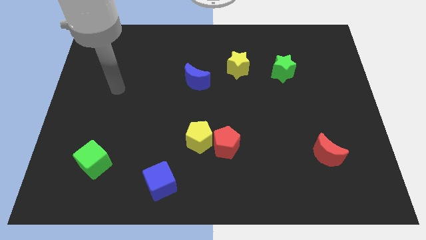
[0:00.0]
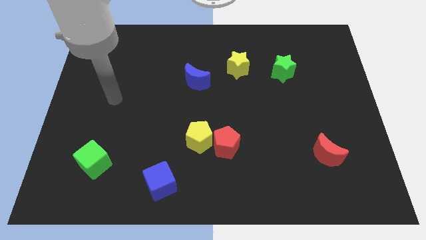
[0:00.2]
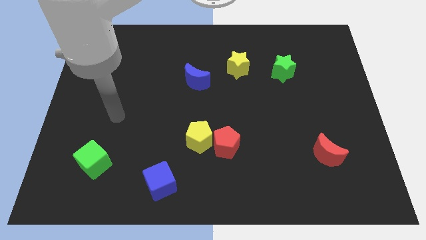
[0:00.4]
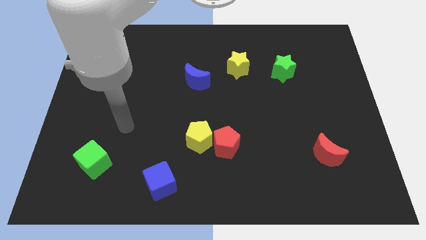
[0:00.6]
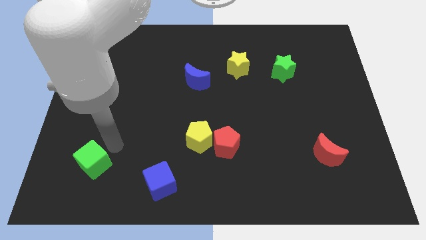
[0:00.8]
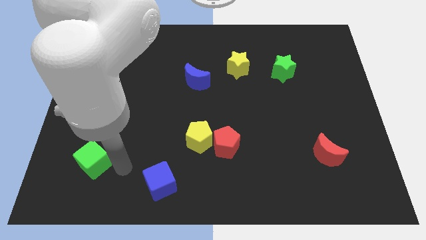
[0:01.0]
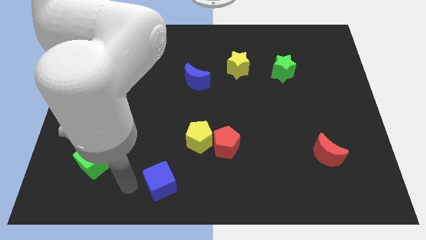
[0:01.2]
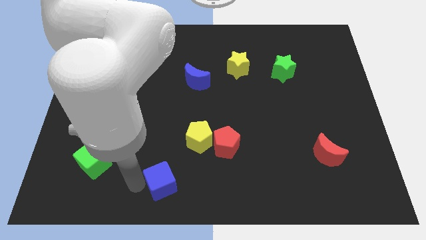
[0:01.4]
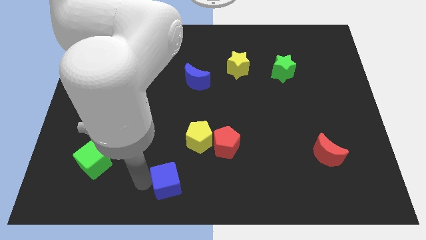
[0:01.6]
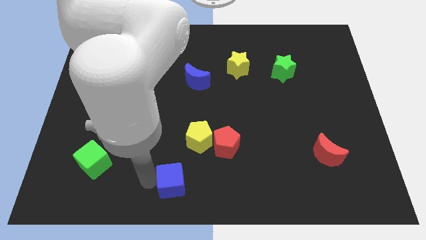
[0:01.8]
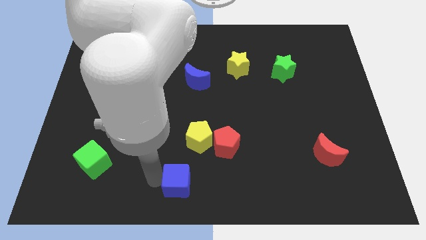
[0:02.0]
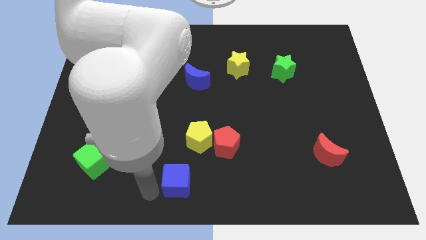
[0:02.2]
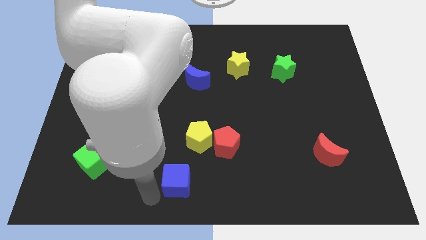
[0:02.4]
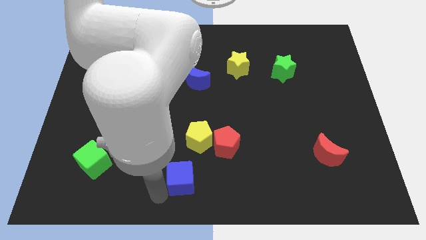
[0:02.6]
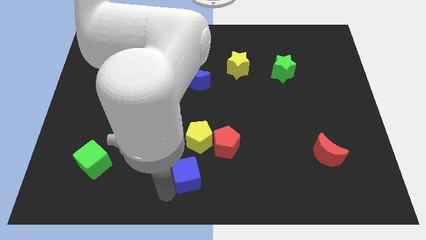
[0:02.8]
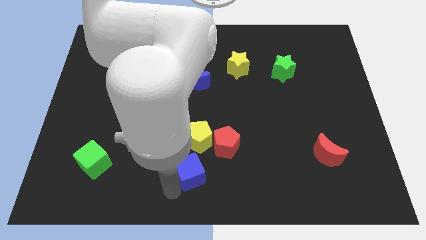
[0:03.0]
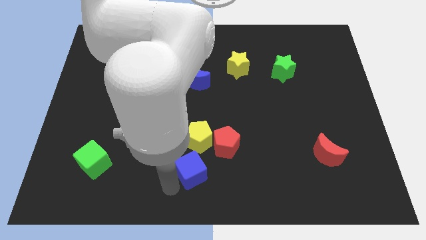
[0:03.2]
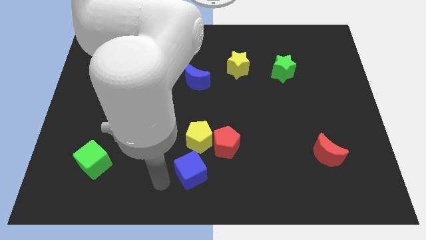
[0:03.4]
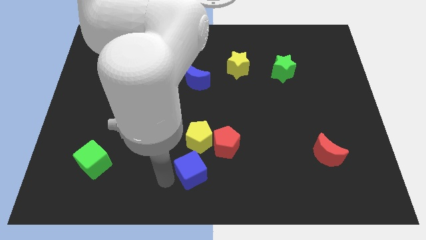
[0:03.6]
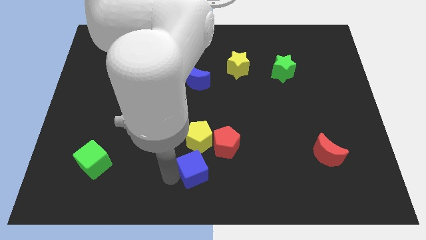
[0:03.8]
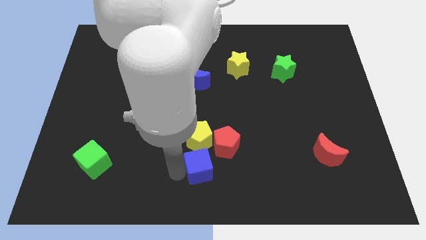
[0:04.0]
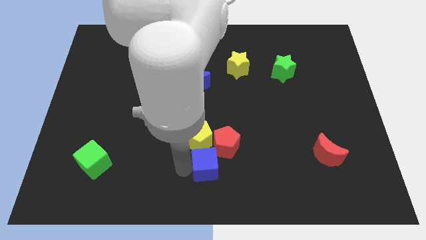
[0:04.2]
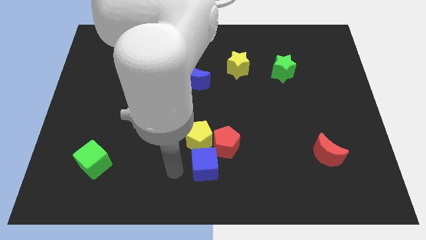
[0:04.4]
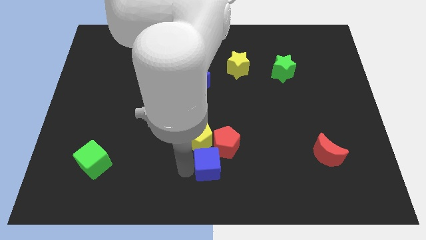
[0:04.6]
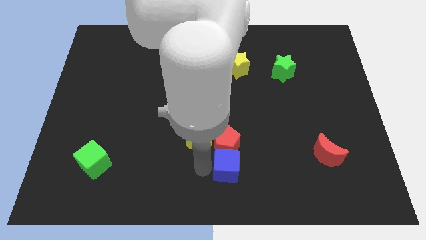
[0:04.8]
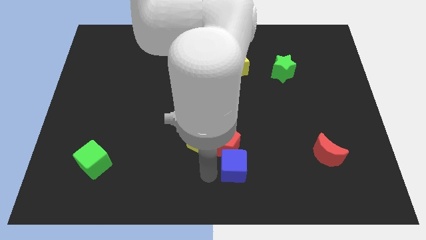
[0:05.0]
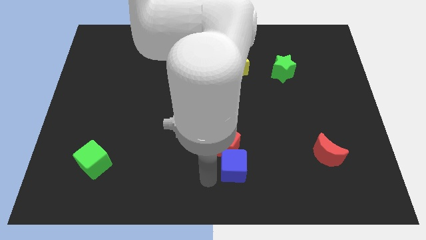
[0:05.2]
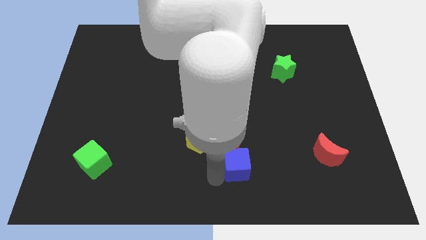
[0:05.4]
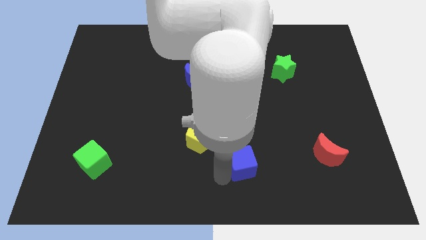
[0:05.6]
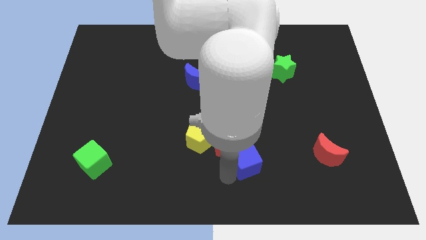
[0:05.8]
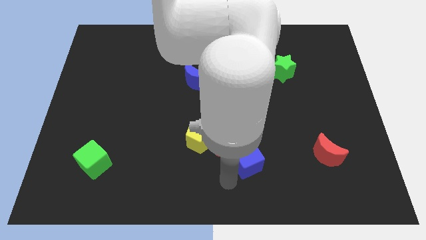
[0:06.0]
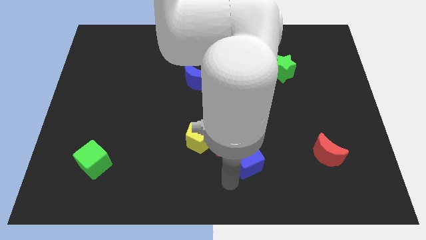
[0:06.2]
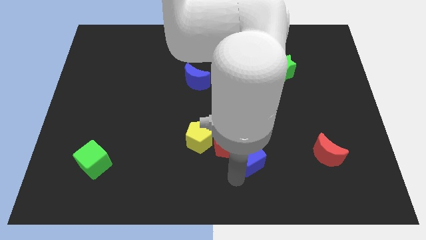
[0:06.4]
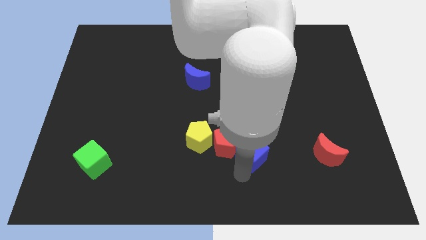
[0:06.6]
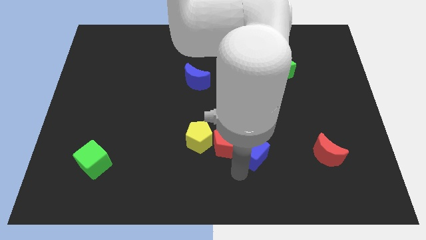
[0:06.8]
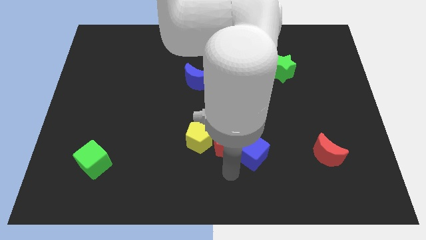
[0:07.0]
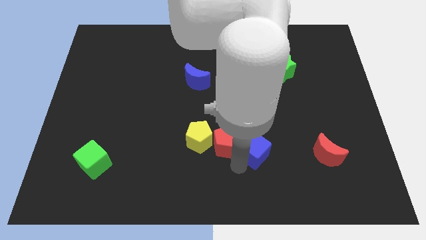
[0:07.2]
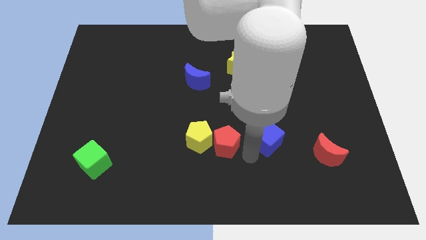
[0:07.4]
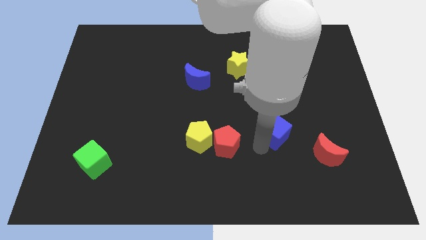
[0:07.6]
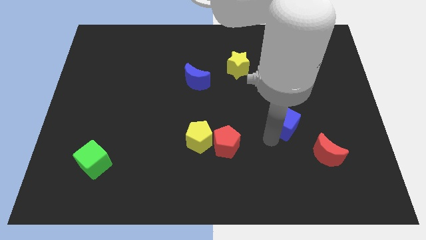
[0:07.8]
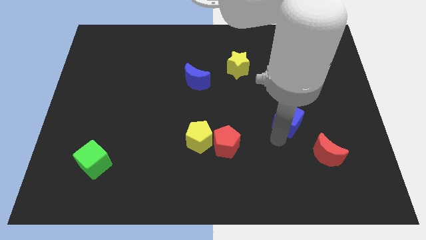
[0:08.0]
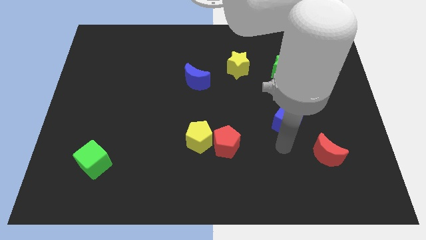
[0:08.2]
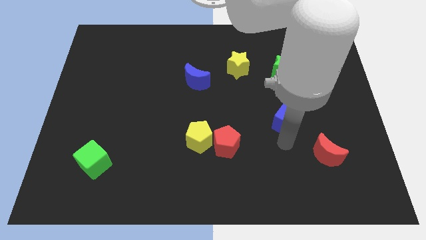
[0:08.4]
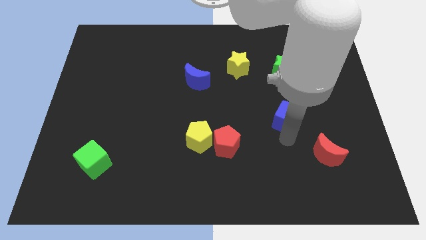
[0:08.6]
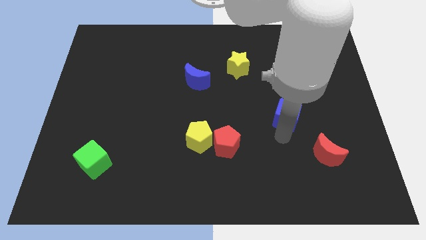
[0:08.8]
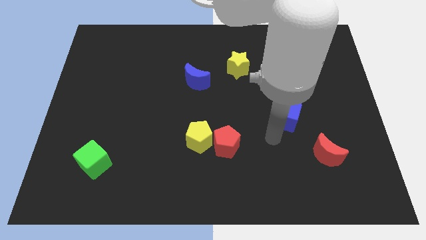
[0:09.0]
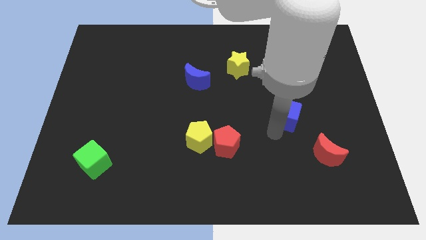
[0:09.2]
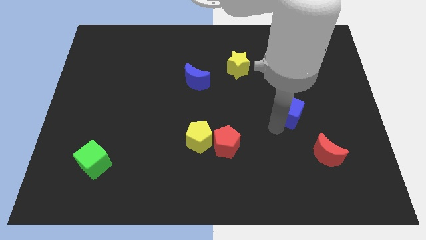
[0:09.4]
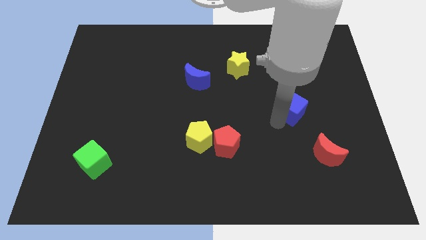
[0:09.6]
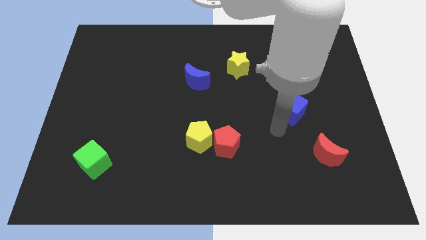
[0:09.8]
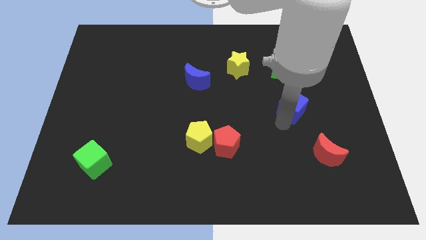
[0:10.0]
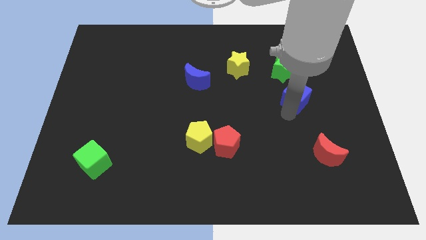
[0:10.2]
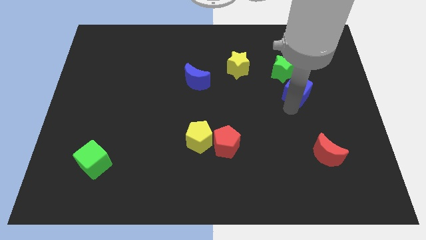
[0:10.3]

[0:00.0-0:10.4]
put the blue cube to the bottom right of the green star

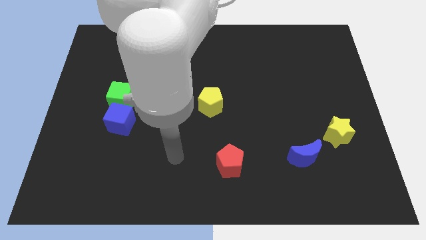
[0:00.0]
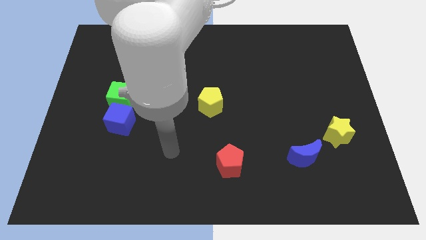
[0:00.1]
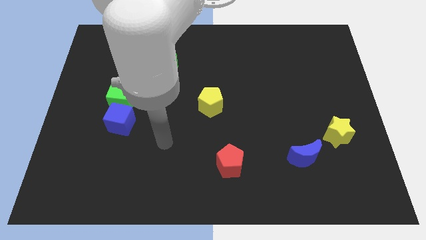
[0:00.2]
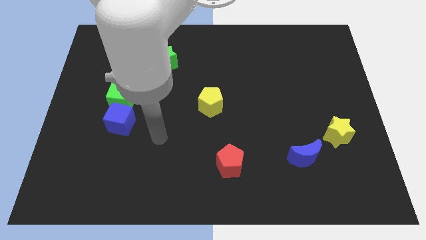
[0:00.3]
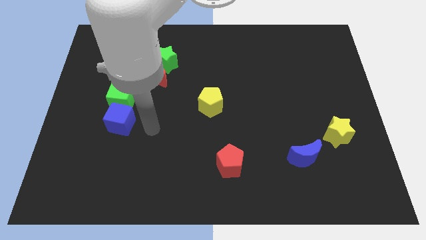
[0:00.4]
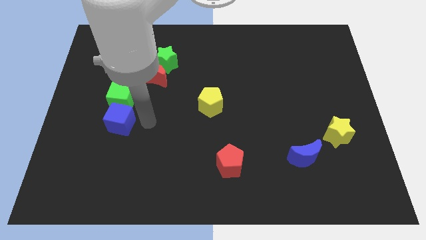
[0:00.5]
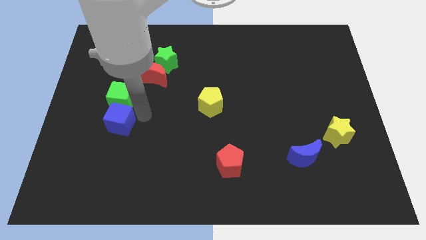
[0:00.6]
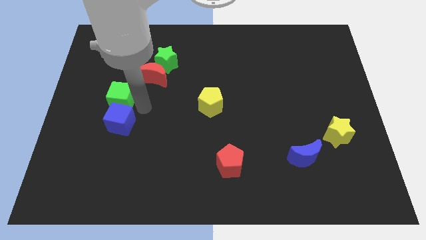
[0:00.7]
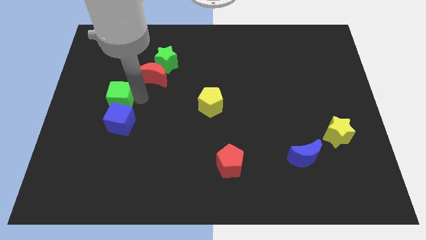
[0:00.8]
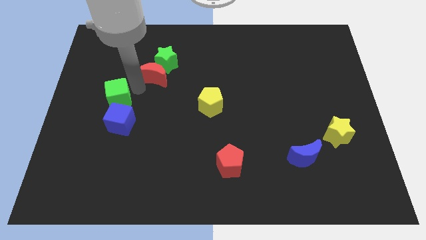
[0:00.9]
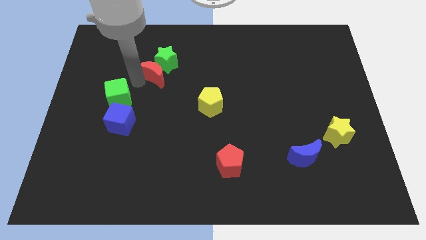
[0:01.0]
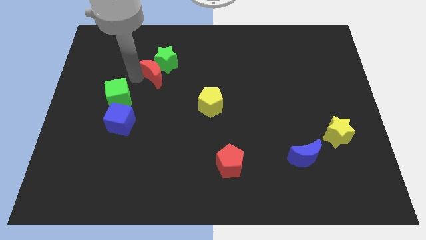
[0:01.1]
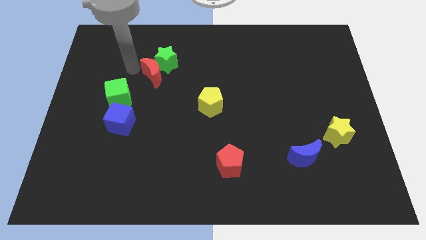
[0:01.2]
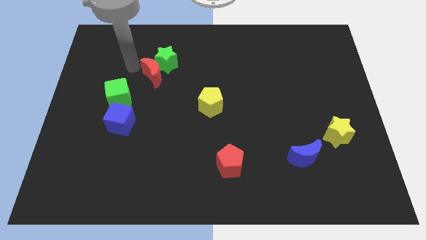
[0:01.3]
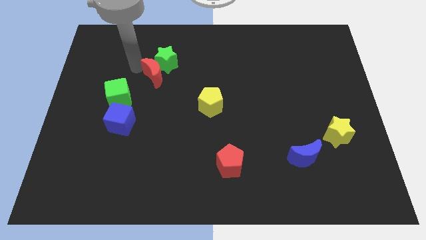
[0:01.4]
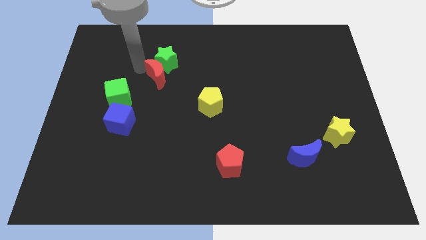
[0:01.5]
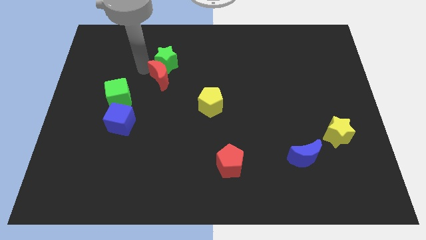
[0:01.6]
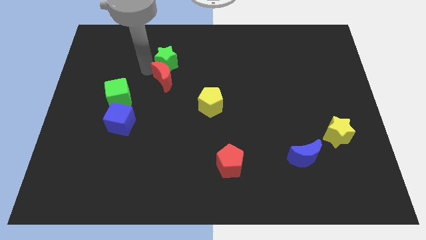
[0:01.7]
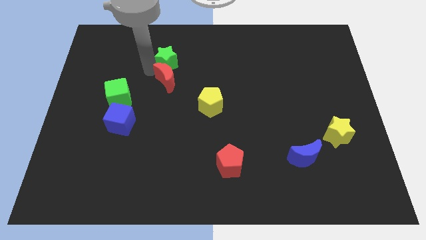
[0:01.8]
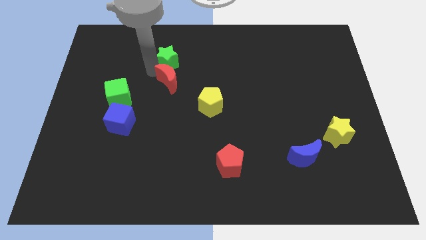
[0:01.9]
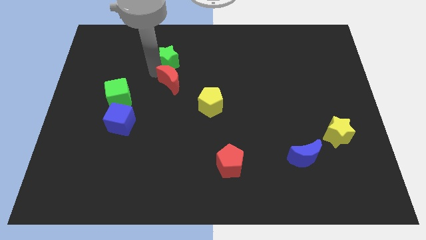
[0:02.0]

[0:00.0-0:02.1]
move the red moon to the top left of the yellow pentagon
